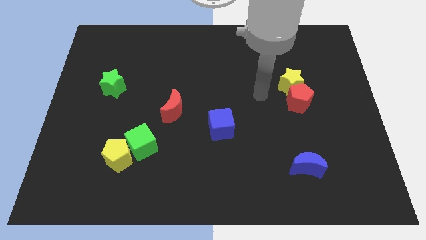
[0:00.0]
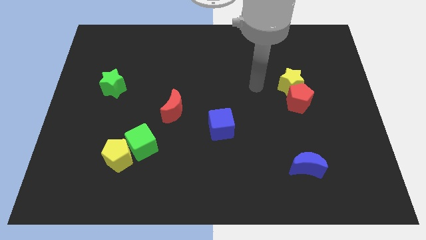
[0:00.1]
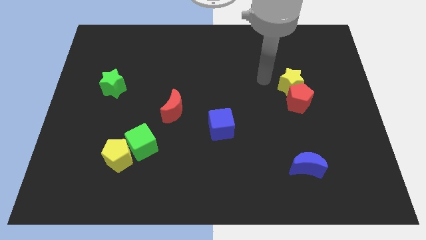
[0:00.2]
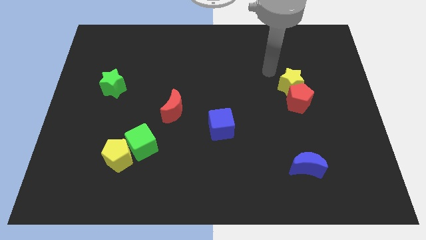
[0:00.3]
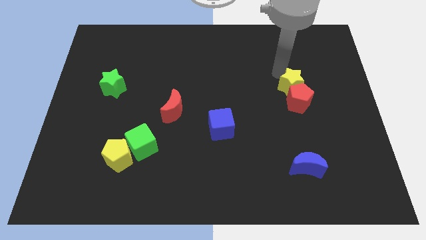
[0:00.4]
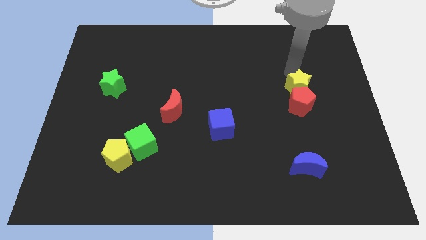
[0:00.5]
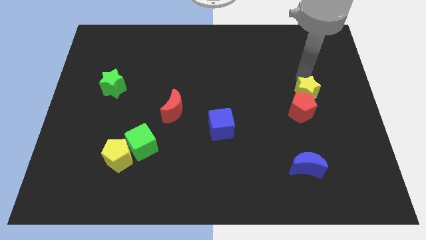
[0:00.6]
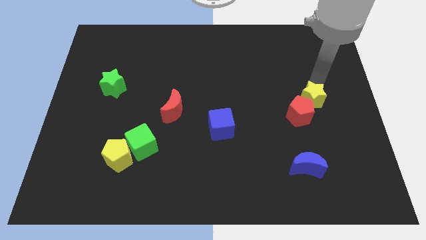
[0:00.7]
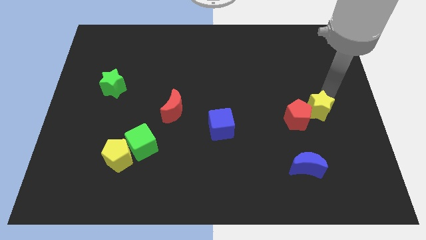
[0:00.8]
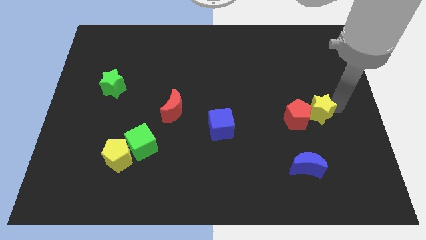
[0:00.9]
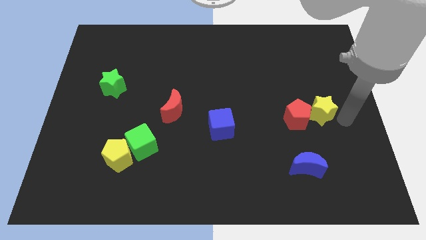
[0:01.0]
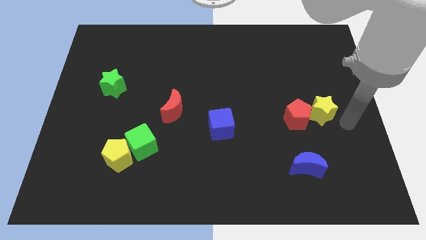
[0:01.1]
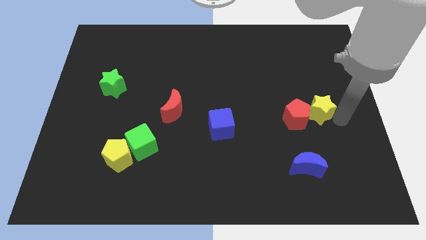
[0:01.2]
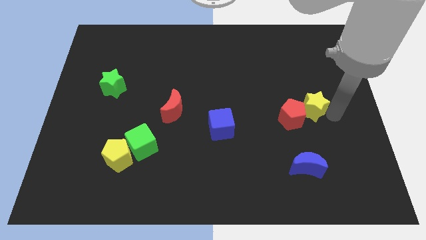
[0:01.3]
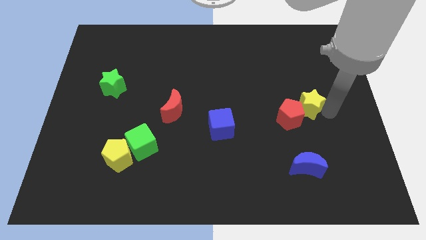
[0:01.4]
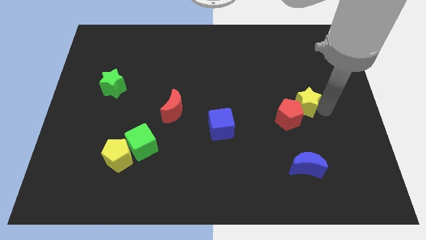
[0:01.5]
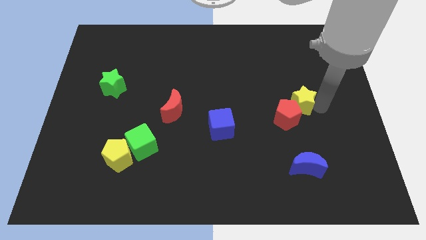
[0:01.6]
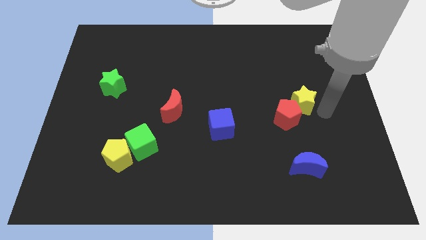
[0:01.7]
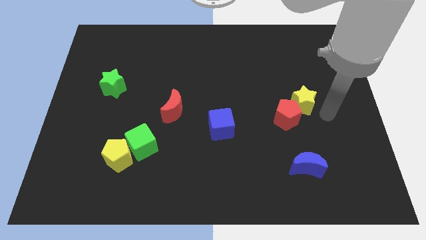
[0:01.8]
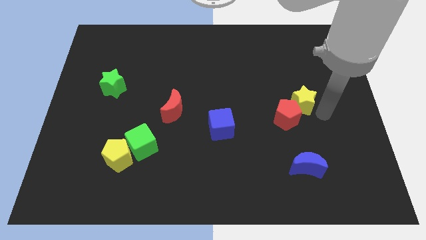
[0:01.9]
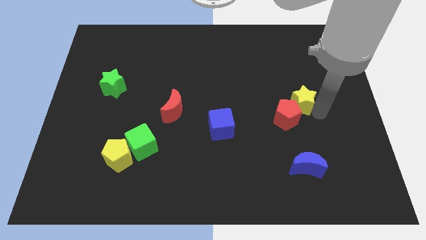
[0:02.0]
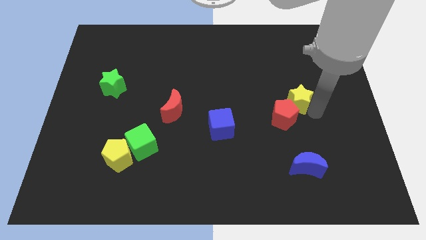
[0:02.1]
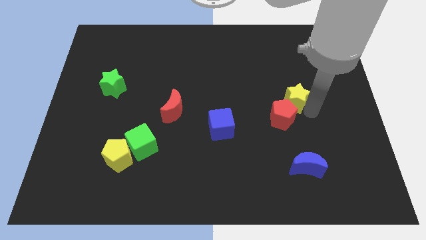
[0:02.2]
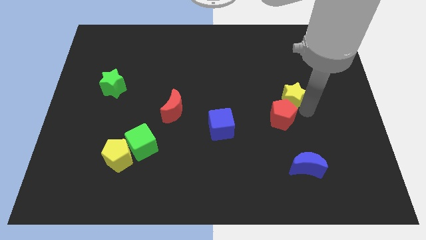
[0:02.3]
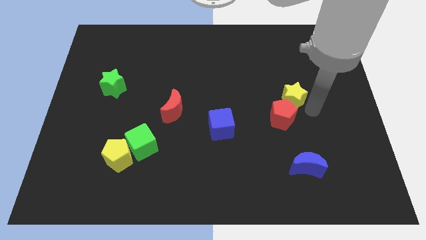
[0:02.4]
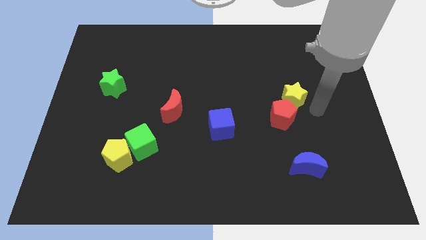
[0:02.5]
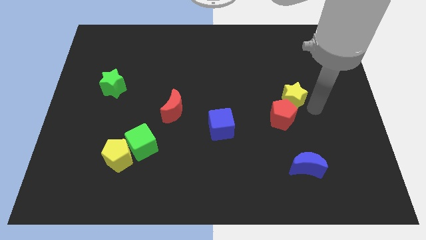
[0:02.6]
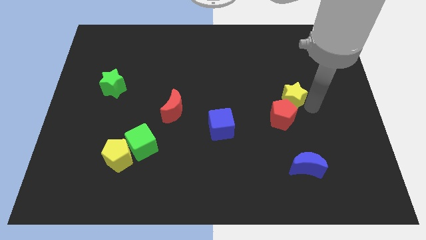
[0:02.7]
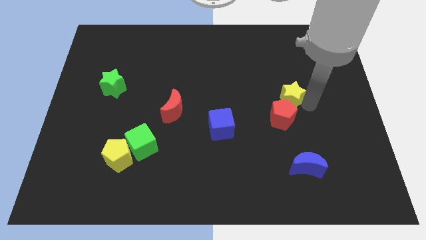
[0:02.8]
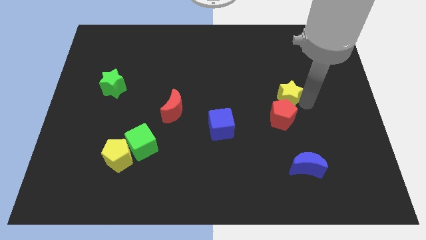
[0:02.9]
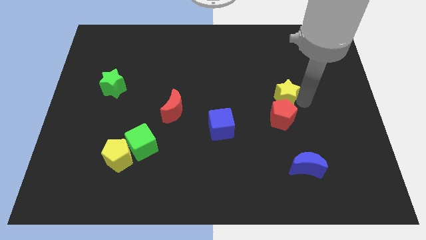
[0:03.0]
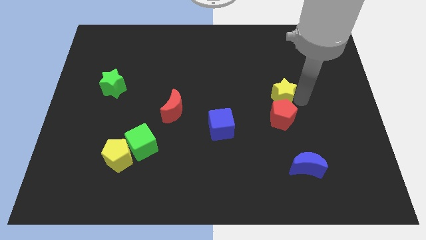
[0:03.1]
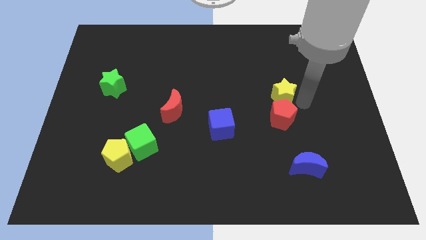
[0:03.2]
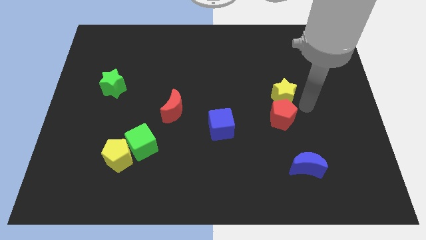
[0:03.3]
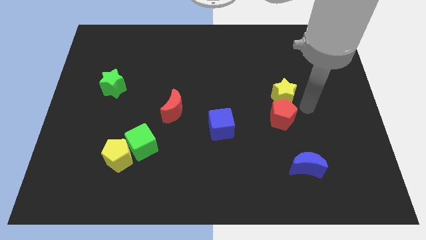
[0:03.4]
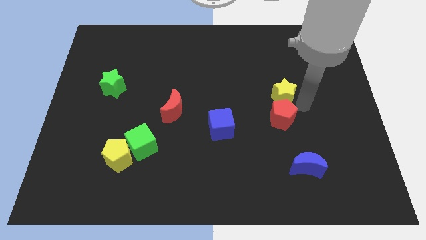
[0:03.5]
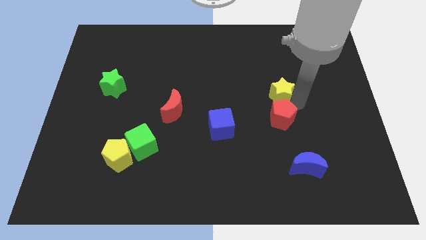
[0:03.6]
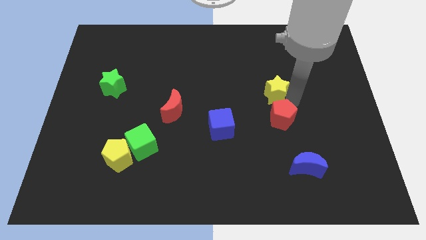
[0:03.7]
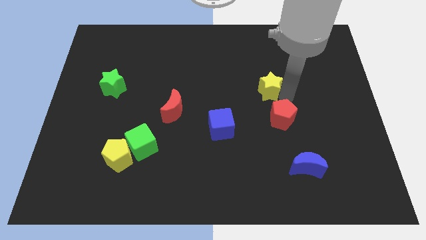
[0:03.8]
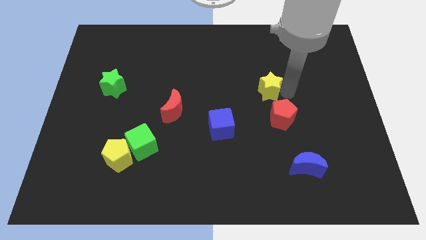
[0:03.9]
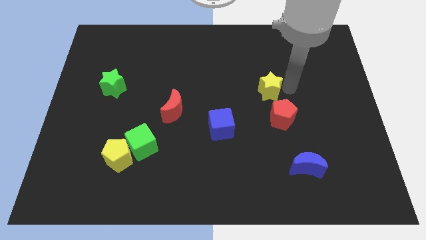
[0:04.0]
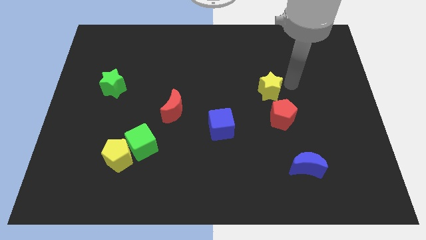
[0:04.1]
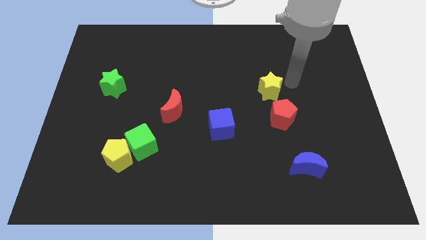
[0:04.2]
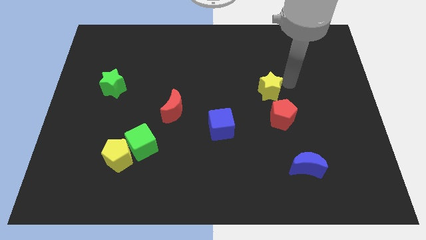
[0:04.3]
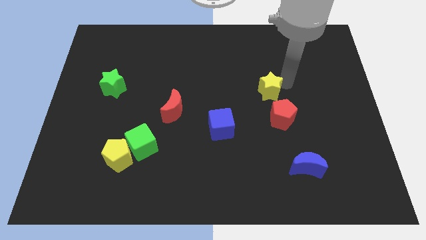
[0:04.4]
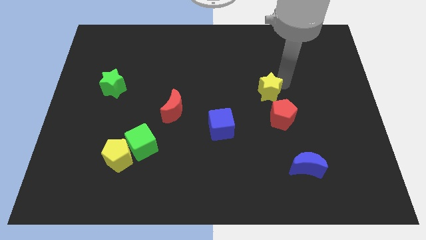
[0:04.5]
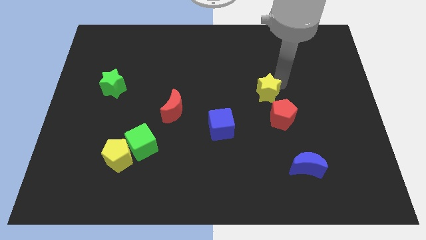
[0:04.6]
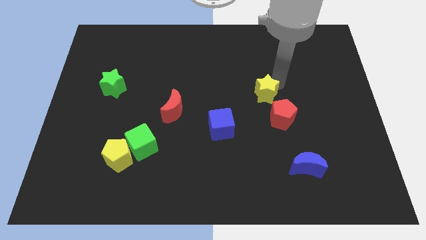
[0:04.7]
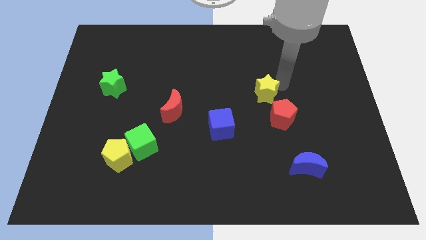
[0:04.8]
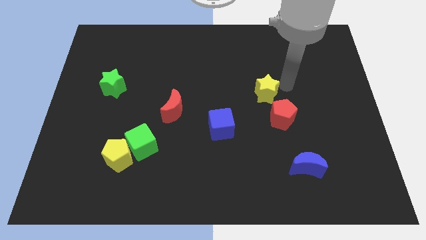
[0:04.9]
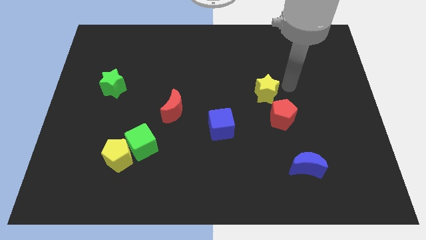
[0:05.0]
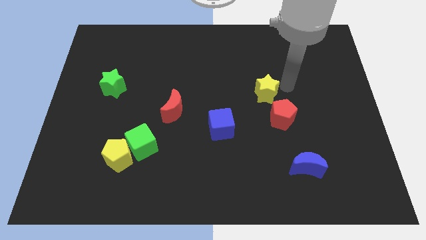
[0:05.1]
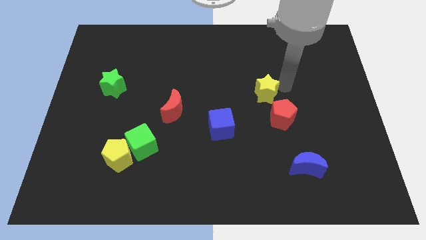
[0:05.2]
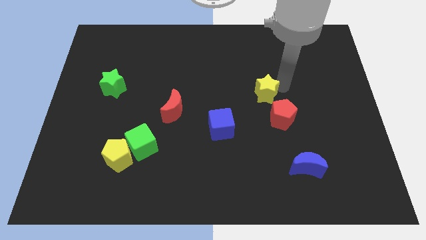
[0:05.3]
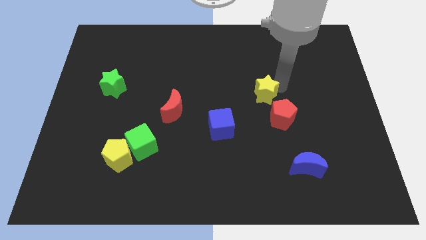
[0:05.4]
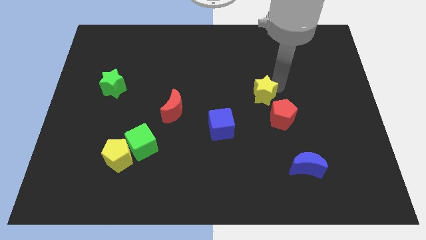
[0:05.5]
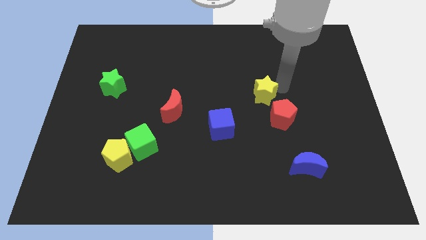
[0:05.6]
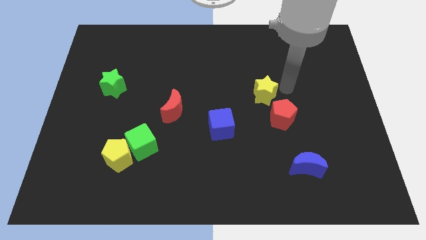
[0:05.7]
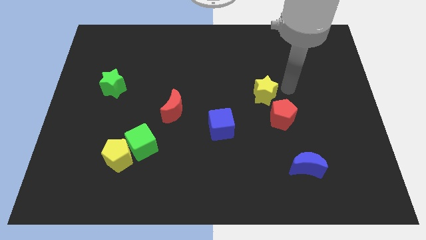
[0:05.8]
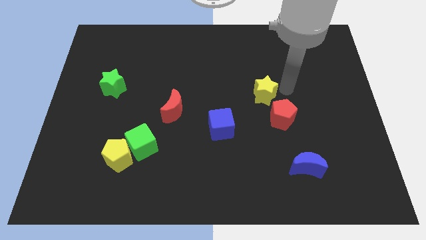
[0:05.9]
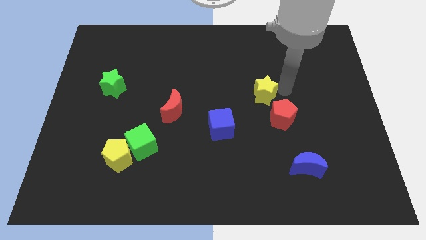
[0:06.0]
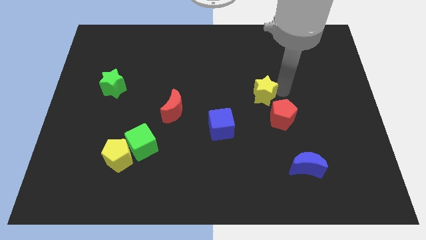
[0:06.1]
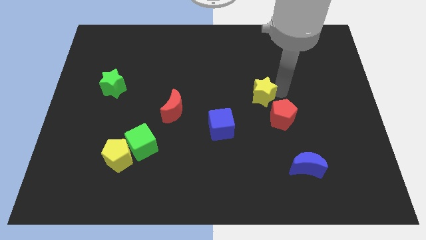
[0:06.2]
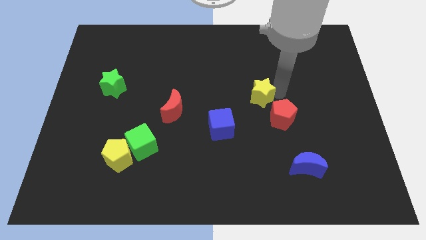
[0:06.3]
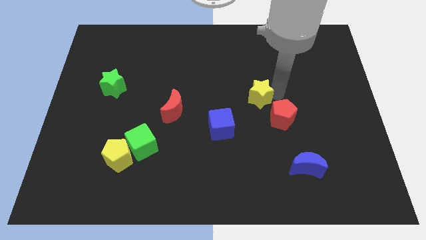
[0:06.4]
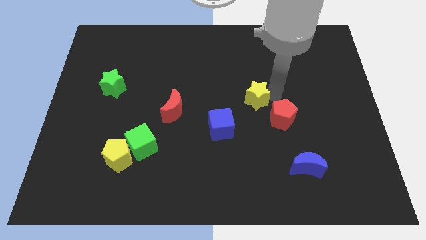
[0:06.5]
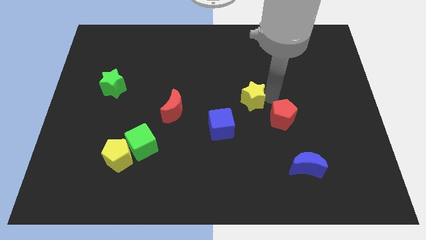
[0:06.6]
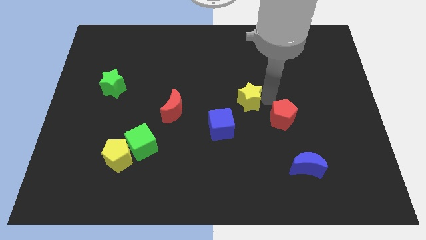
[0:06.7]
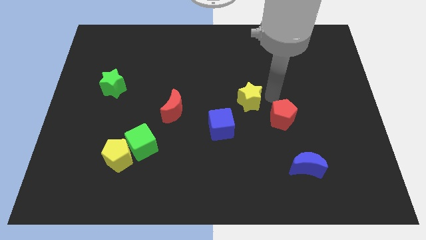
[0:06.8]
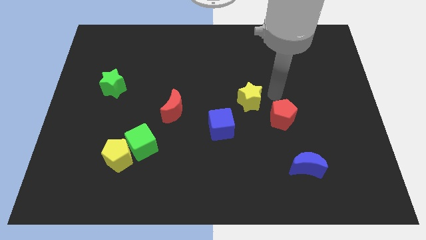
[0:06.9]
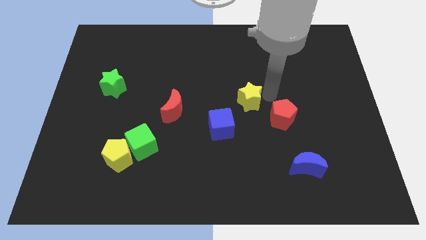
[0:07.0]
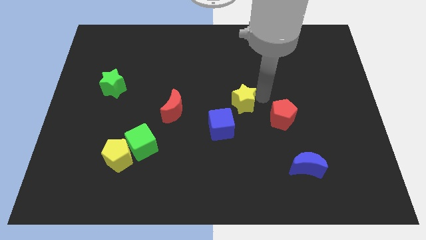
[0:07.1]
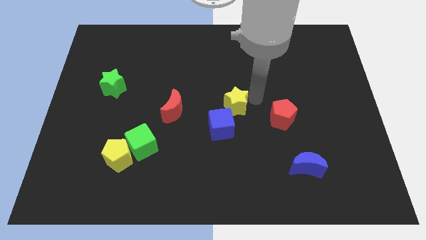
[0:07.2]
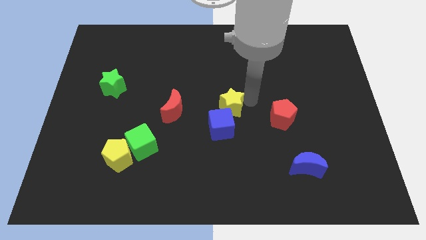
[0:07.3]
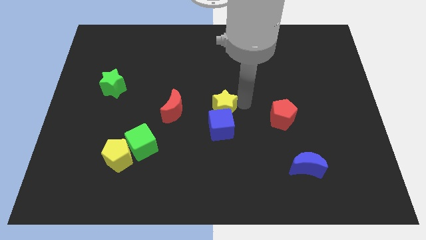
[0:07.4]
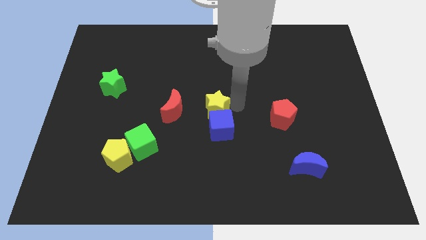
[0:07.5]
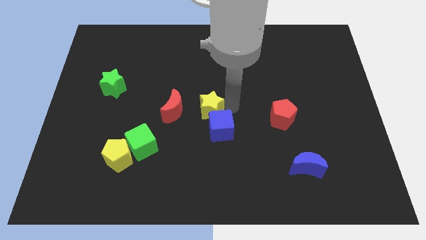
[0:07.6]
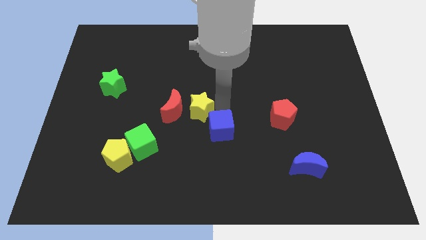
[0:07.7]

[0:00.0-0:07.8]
slide the yellow star close to the red moon
